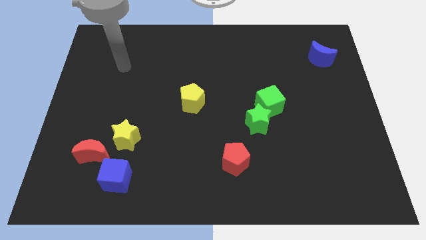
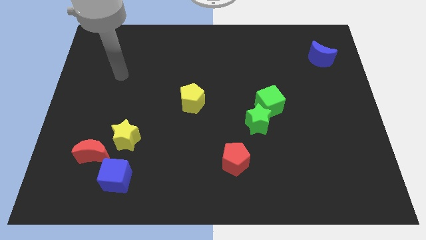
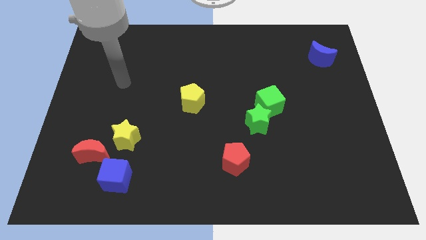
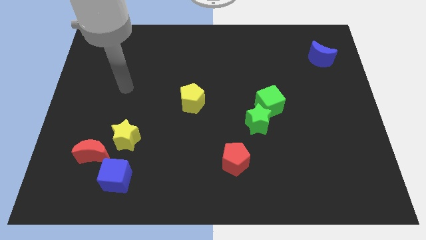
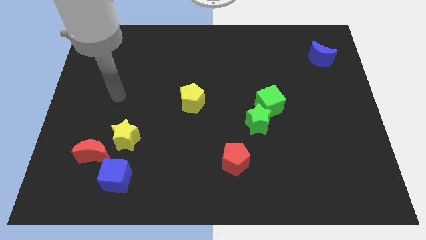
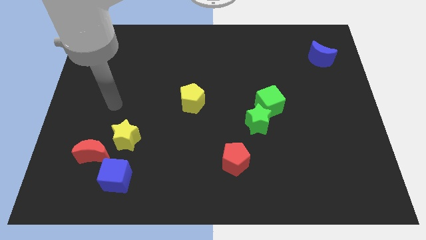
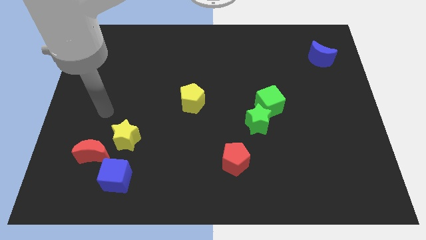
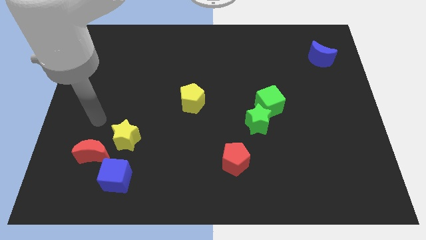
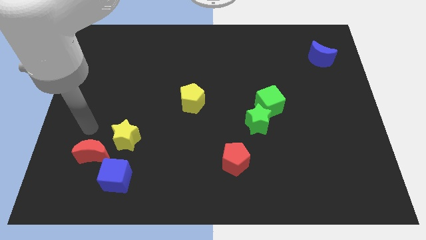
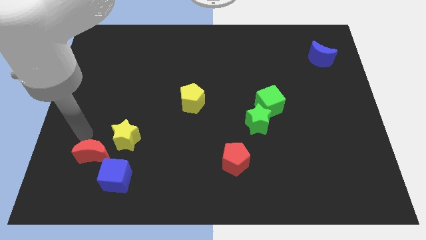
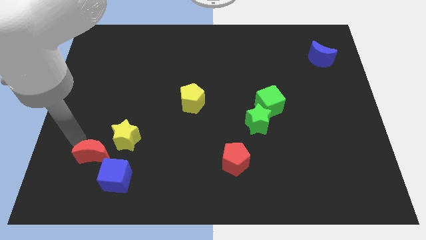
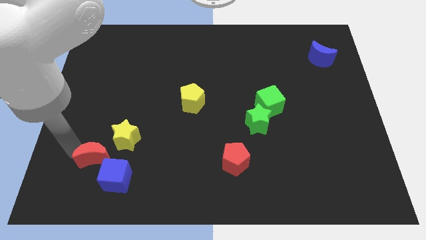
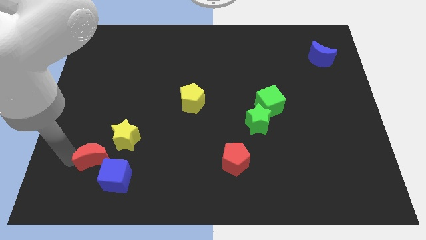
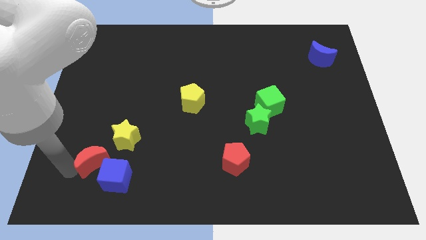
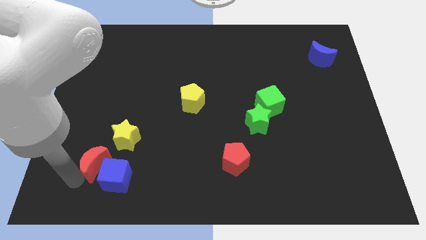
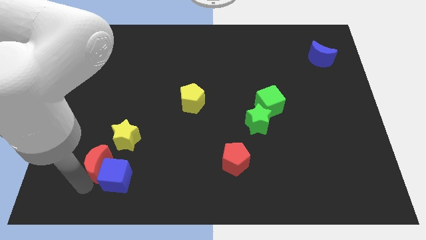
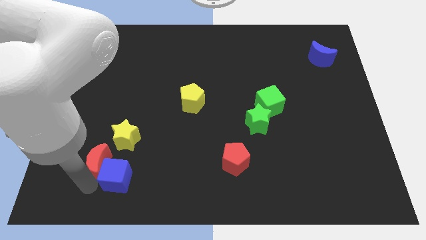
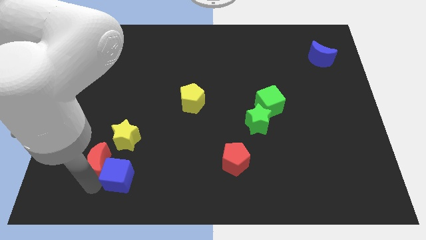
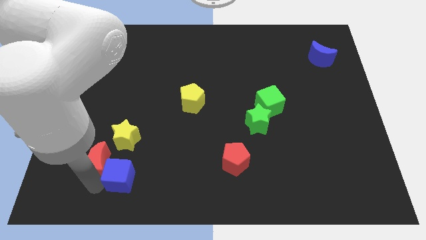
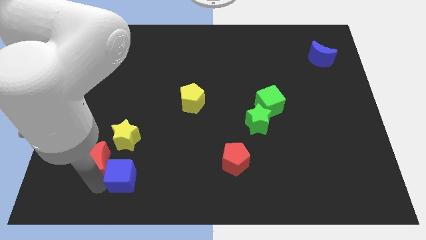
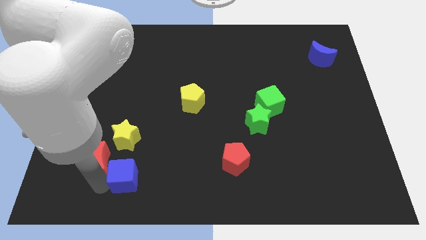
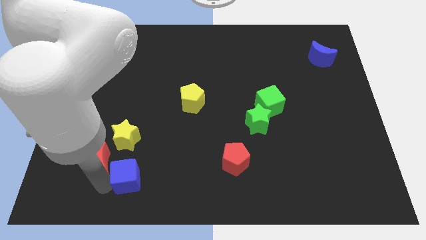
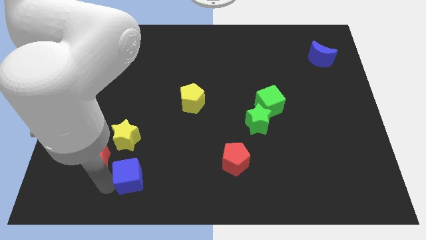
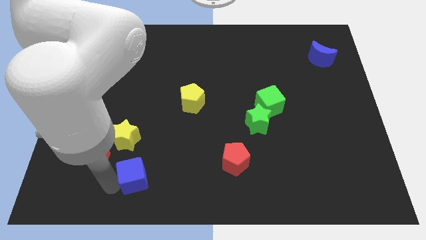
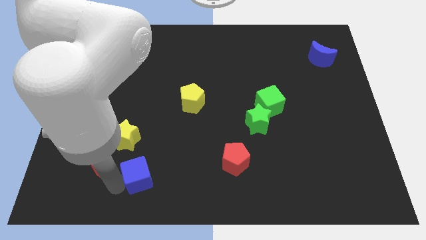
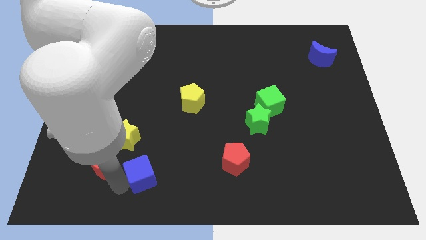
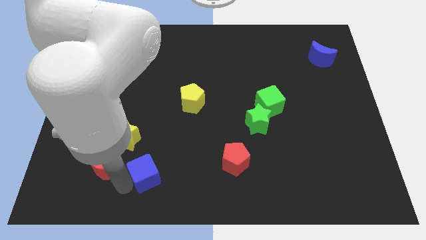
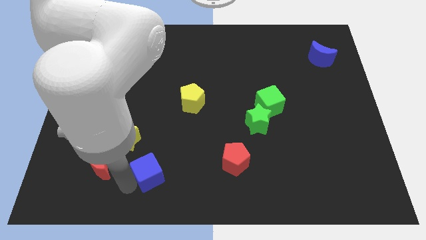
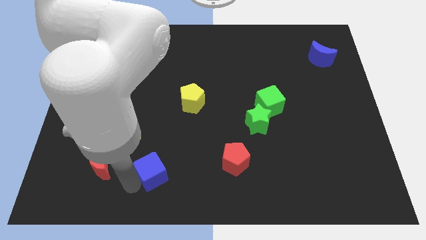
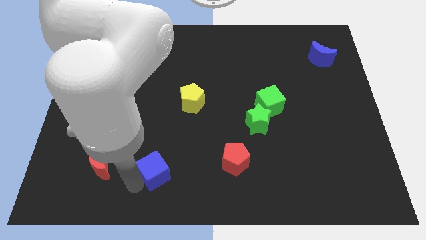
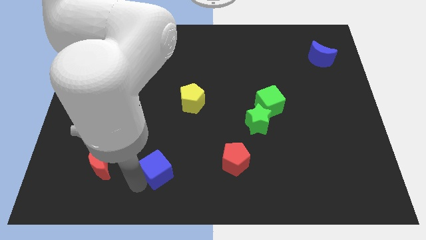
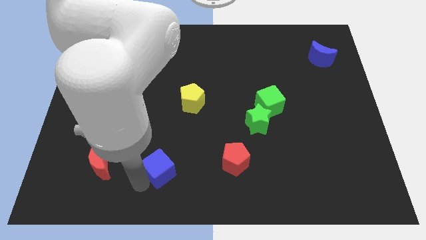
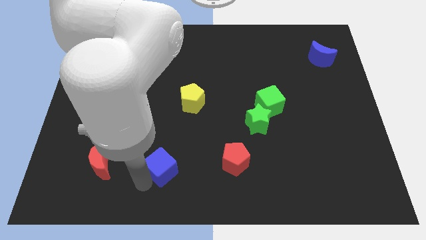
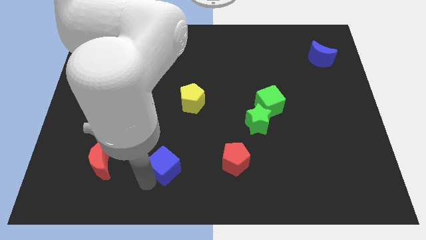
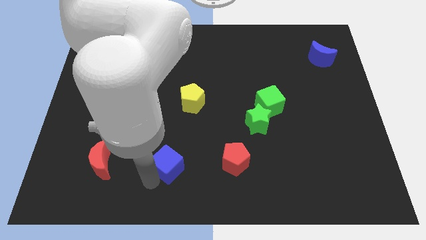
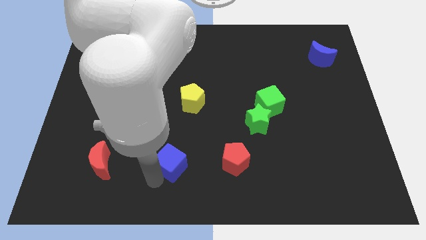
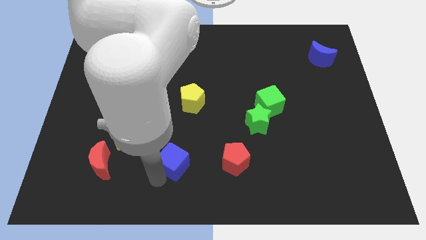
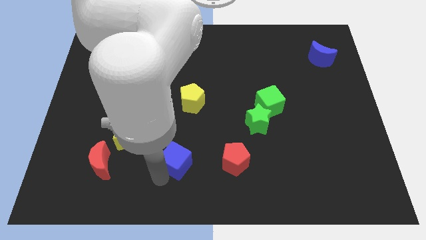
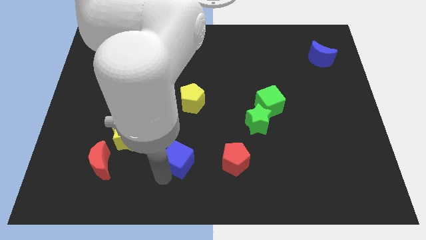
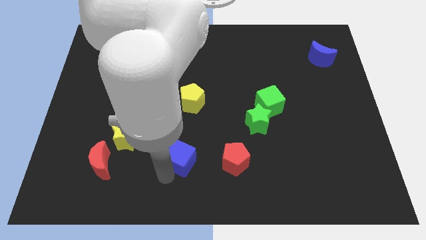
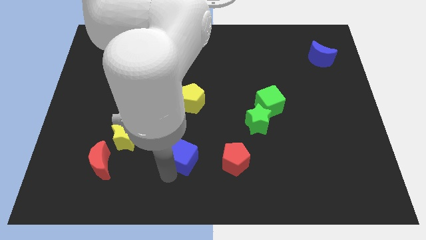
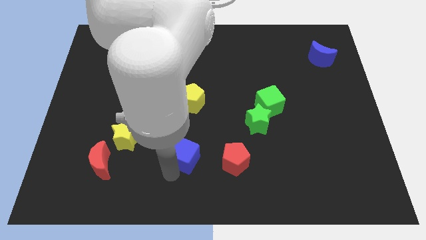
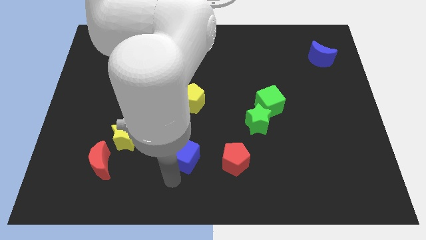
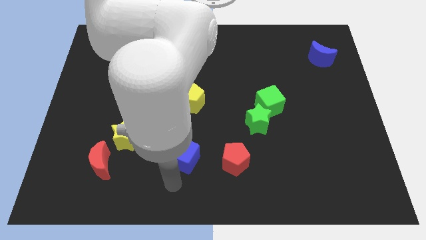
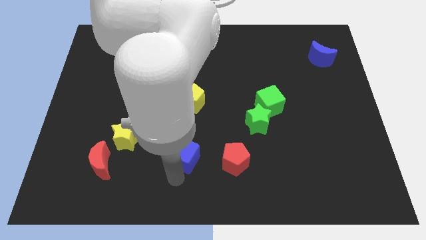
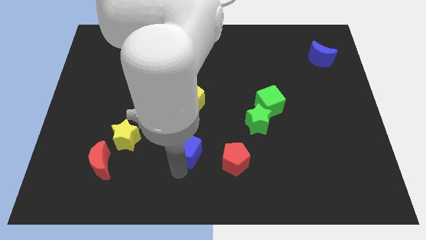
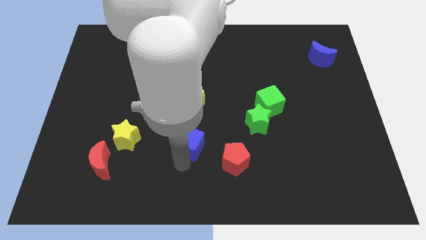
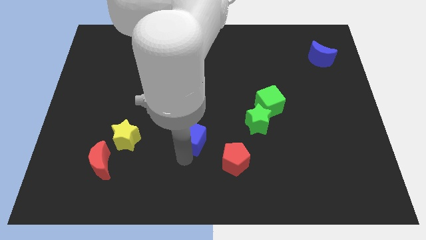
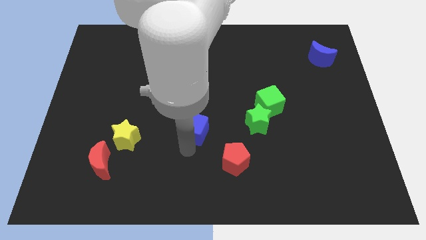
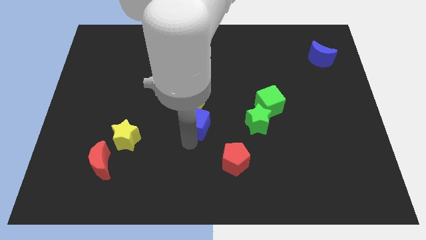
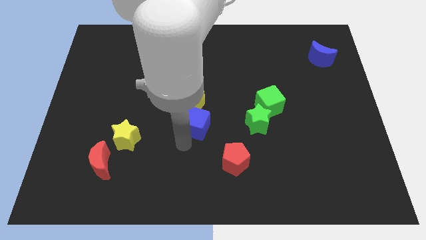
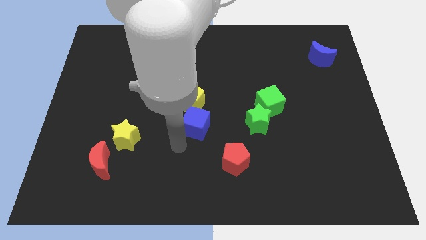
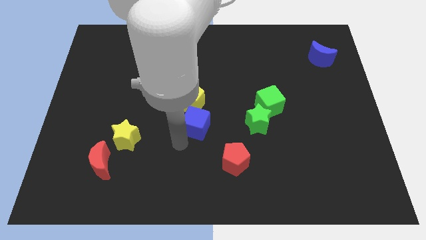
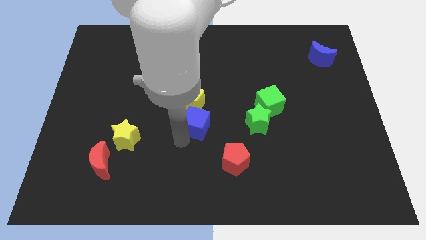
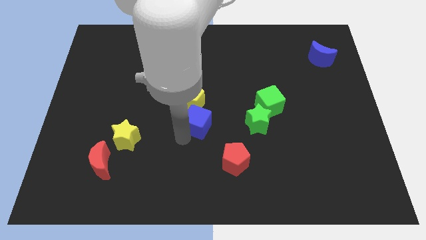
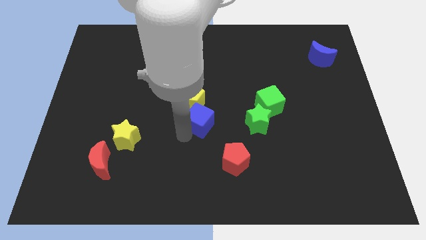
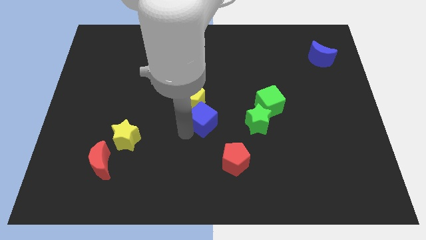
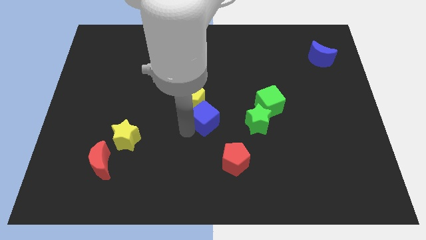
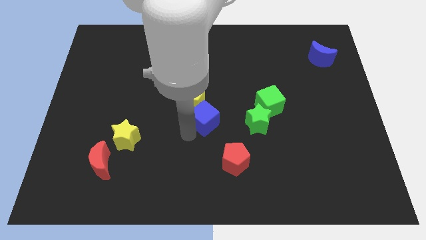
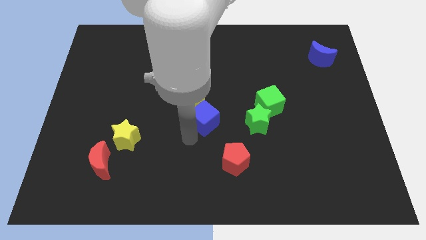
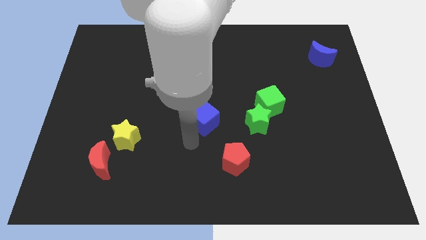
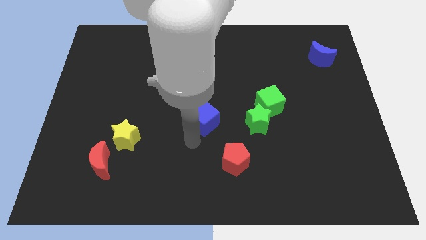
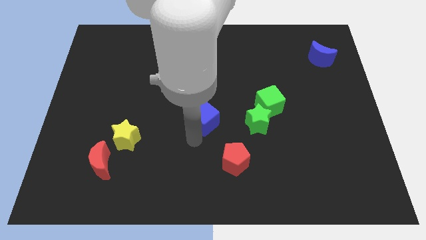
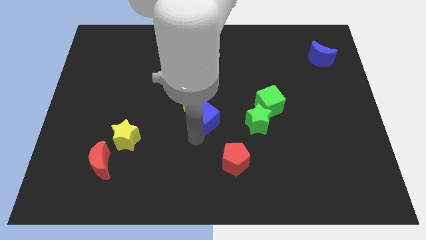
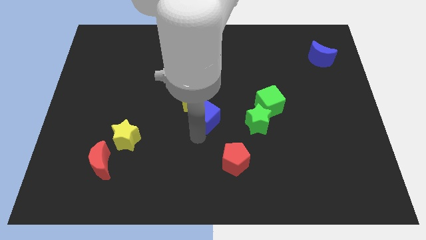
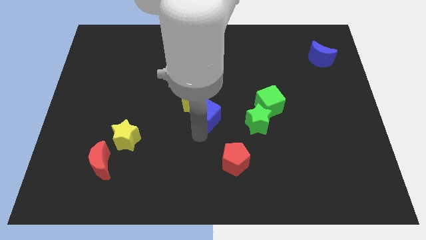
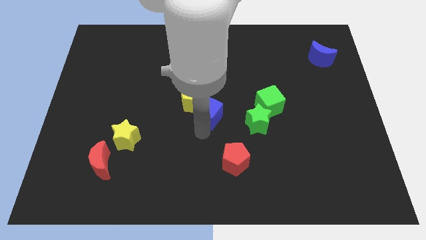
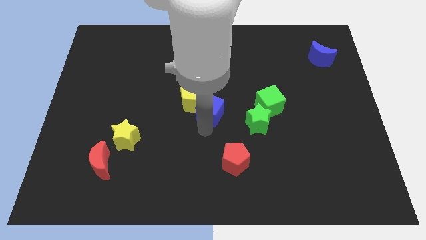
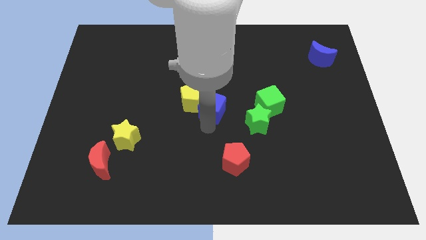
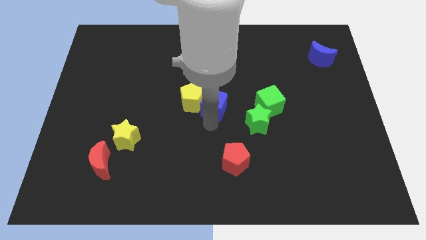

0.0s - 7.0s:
put the blue cube to the top right side of the yellow pentagon
